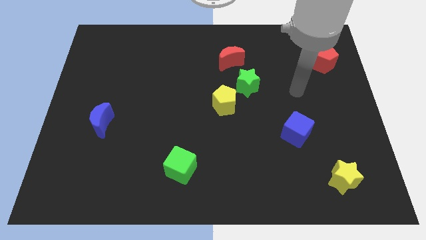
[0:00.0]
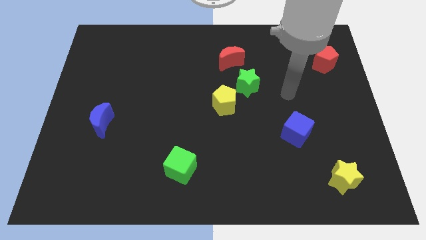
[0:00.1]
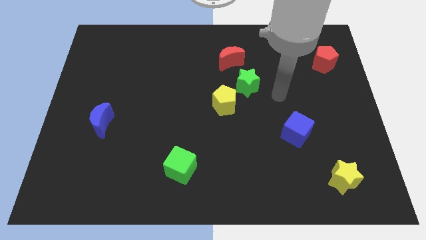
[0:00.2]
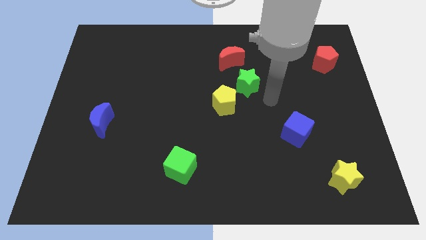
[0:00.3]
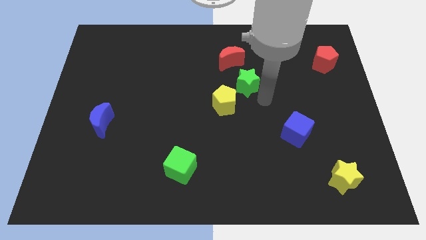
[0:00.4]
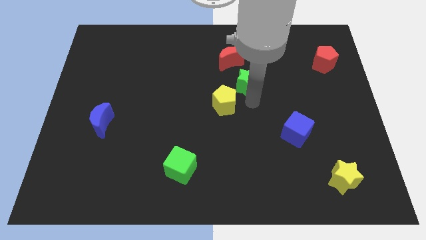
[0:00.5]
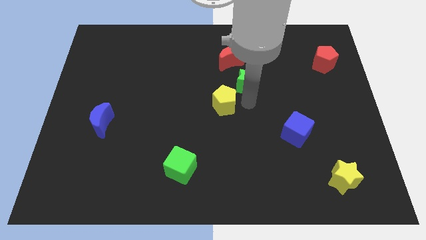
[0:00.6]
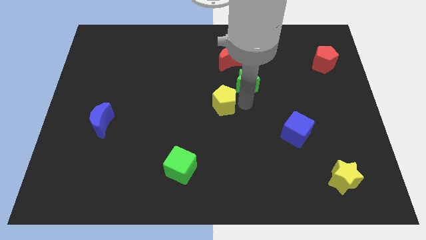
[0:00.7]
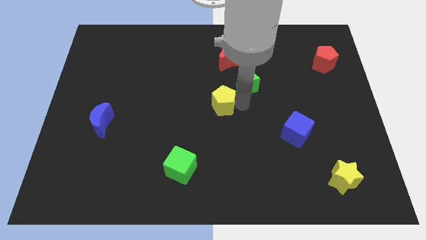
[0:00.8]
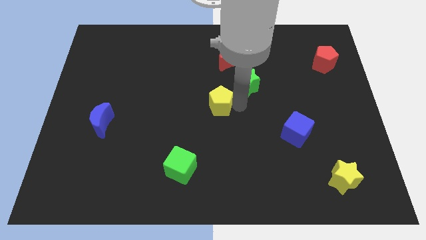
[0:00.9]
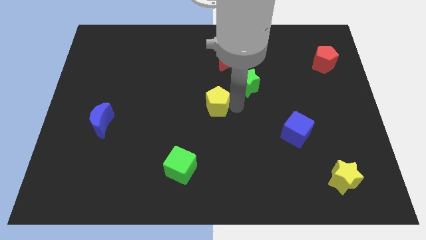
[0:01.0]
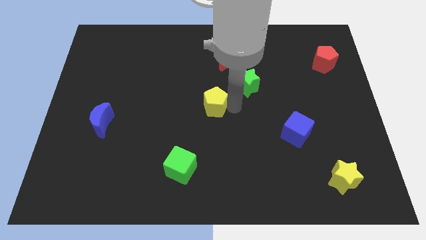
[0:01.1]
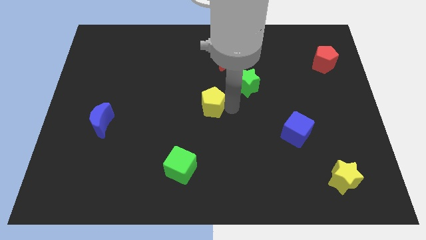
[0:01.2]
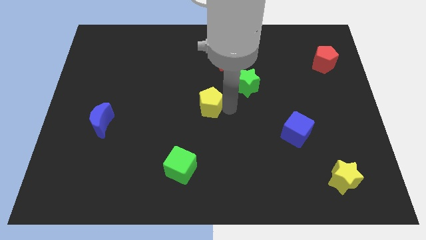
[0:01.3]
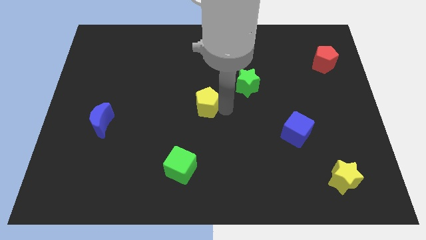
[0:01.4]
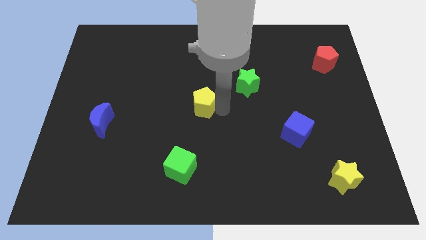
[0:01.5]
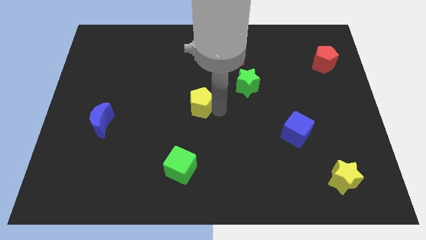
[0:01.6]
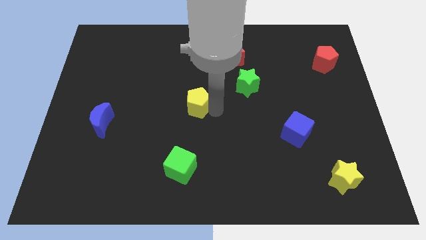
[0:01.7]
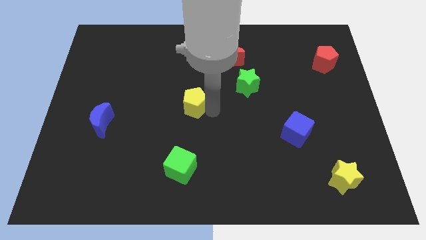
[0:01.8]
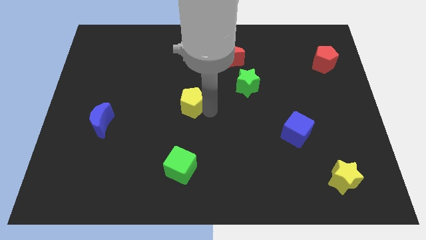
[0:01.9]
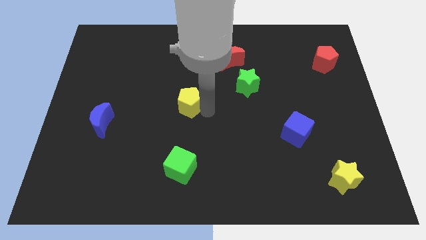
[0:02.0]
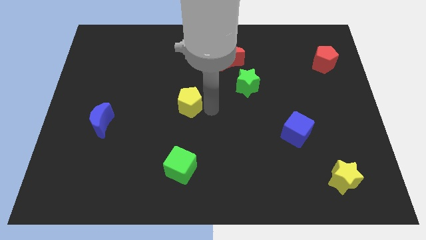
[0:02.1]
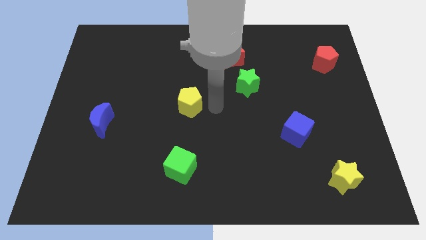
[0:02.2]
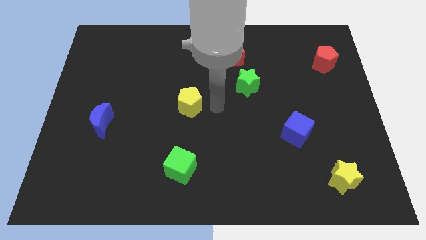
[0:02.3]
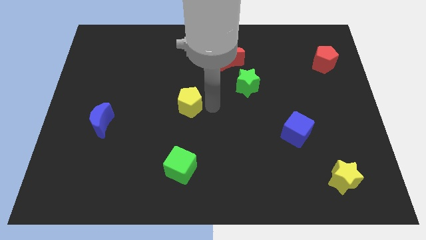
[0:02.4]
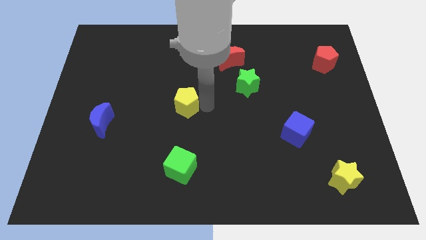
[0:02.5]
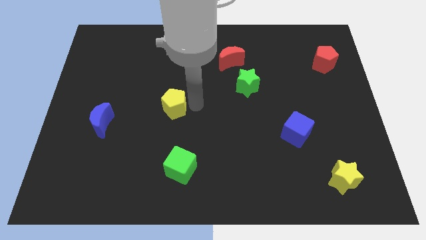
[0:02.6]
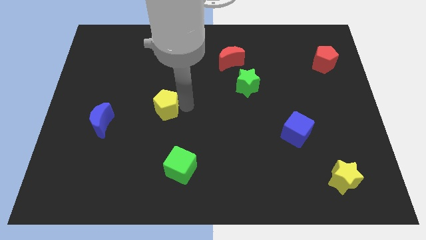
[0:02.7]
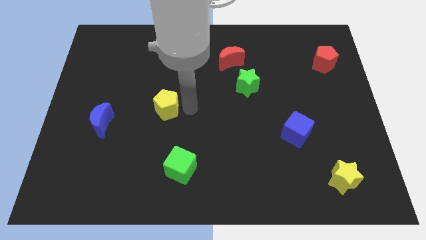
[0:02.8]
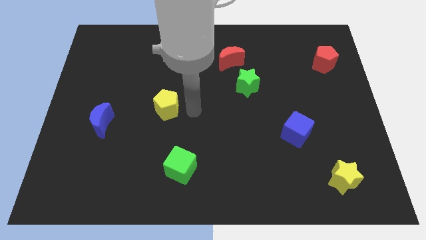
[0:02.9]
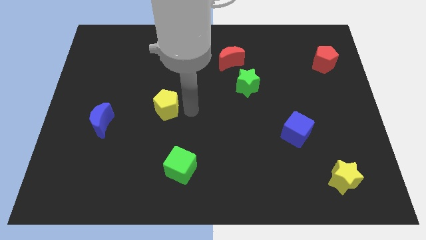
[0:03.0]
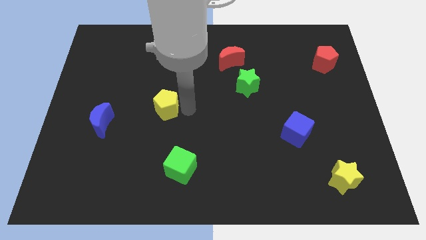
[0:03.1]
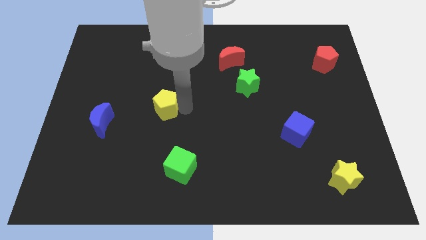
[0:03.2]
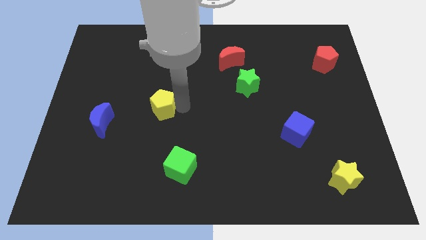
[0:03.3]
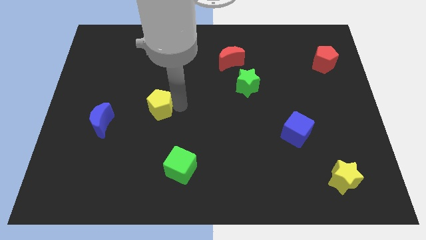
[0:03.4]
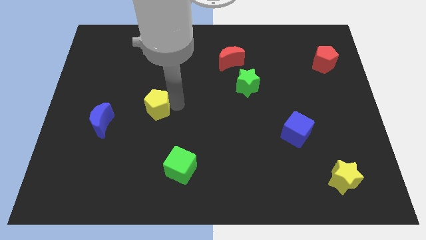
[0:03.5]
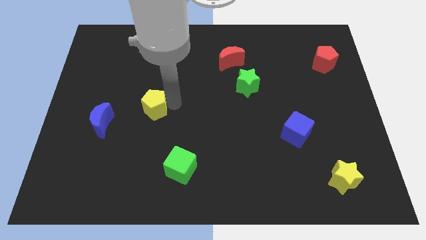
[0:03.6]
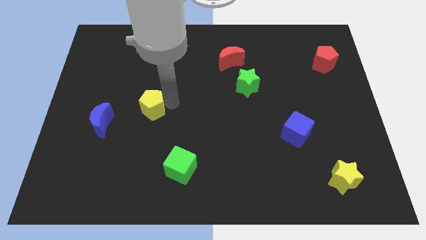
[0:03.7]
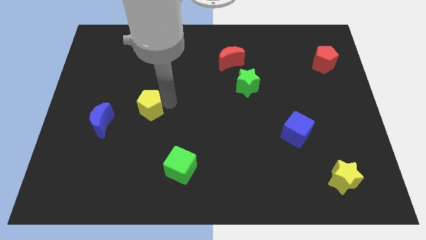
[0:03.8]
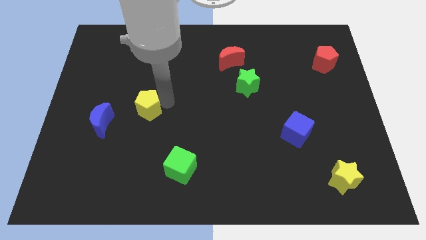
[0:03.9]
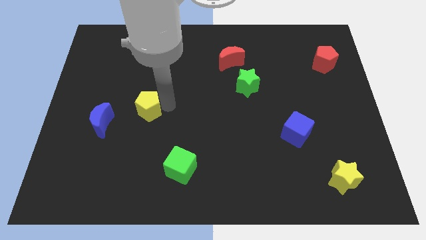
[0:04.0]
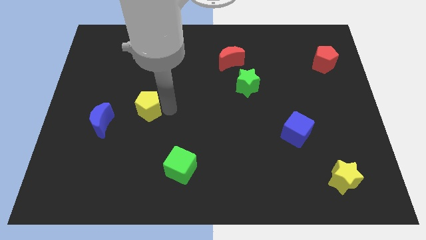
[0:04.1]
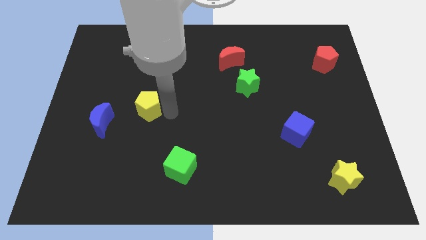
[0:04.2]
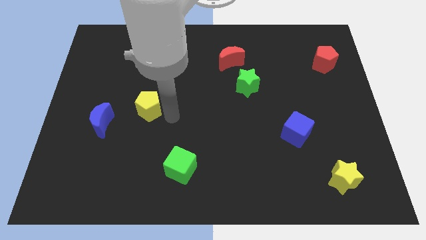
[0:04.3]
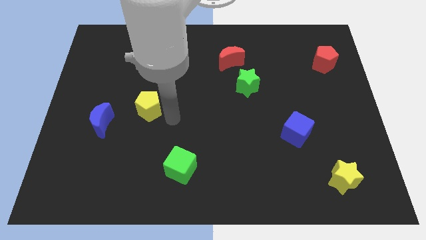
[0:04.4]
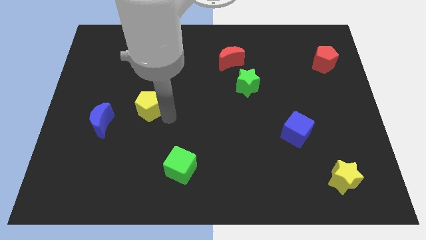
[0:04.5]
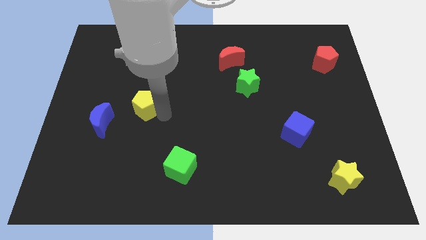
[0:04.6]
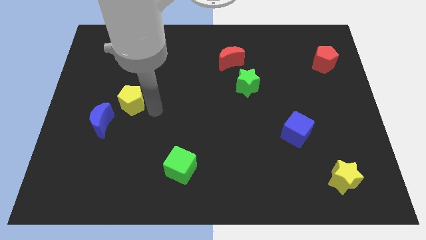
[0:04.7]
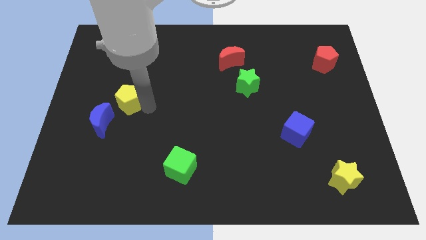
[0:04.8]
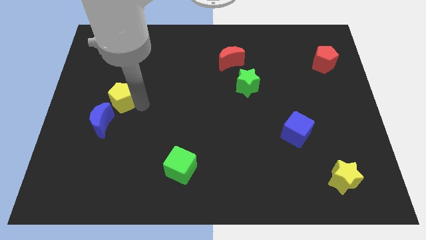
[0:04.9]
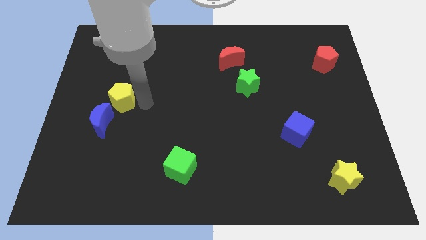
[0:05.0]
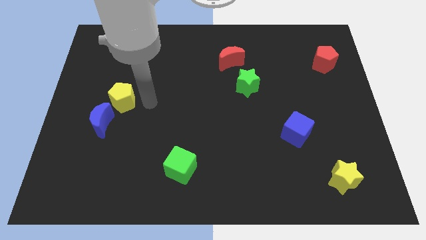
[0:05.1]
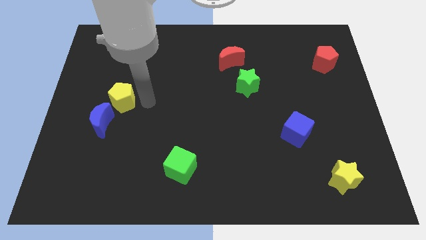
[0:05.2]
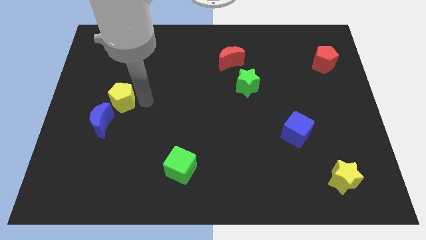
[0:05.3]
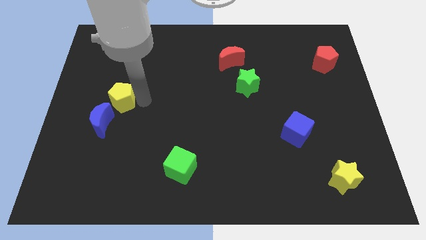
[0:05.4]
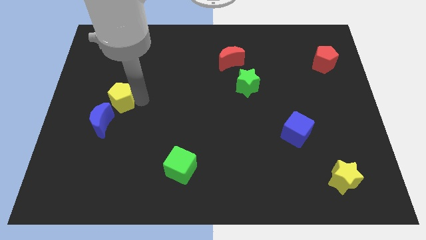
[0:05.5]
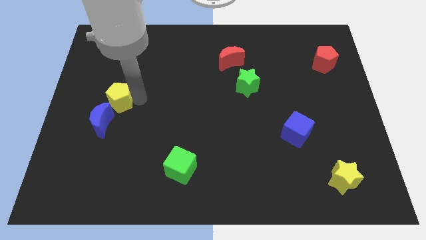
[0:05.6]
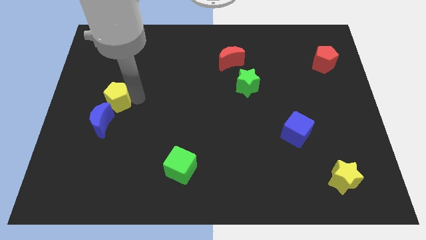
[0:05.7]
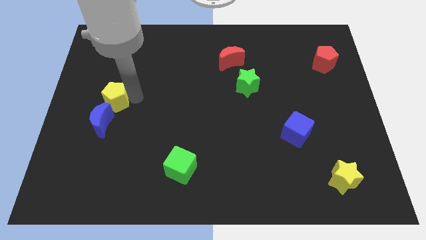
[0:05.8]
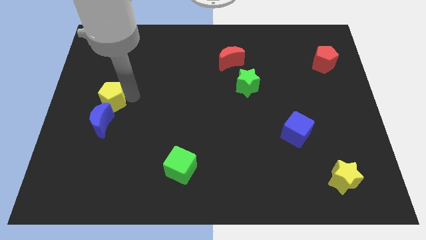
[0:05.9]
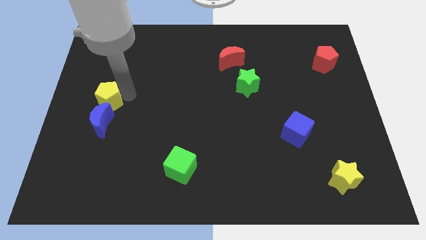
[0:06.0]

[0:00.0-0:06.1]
push the yellow pentagon to the left side of the board
